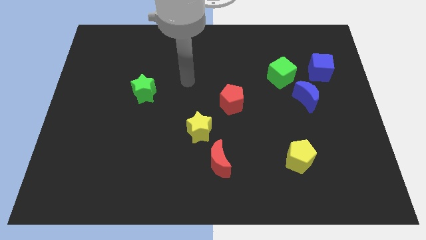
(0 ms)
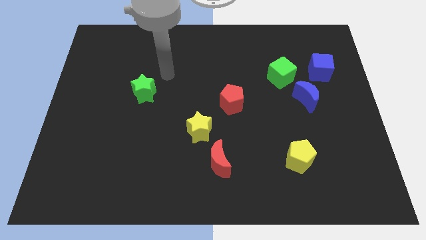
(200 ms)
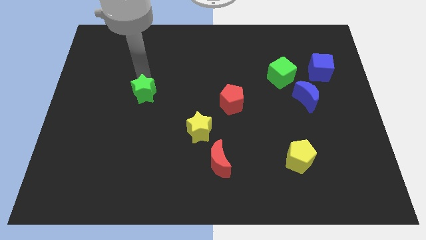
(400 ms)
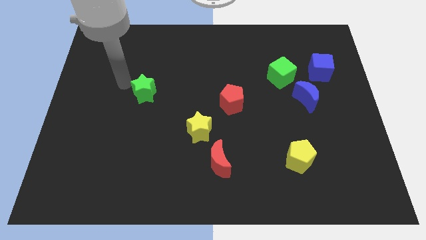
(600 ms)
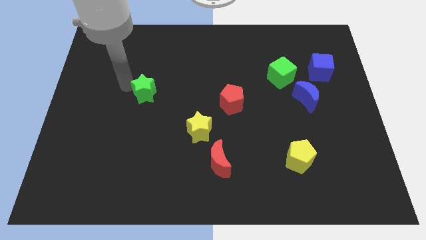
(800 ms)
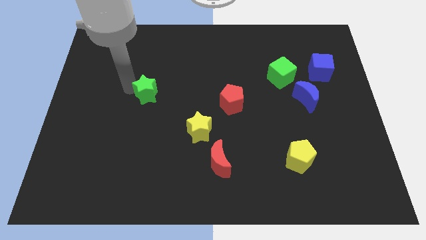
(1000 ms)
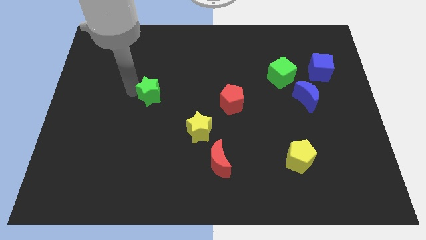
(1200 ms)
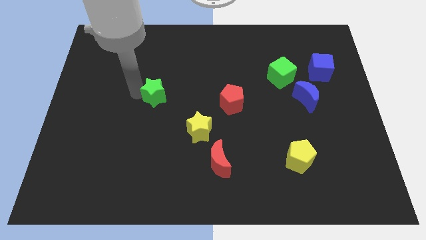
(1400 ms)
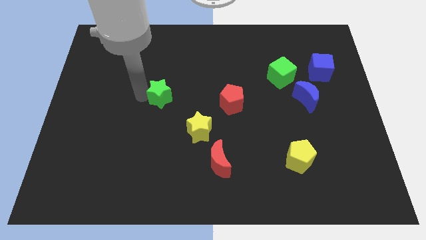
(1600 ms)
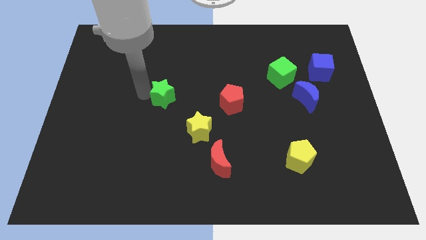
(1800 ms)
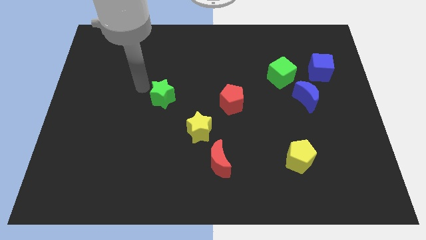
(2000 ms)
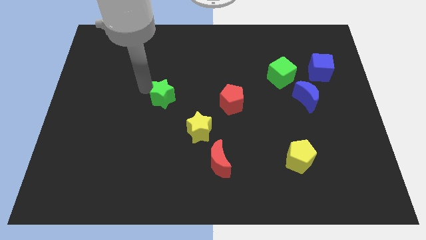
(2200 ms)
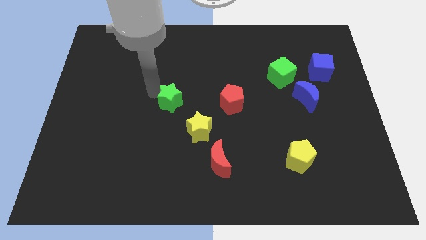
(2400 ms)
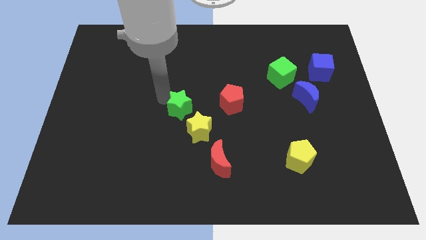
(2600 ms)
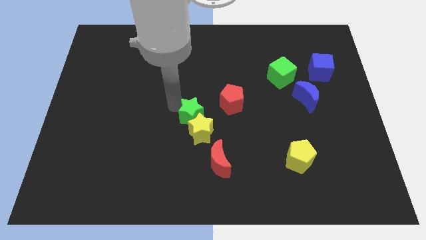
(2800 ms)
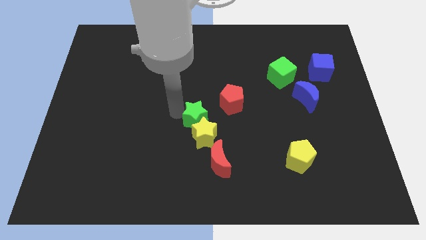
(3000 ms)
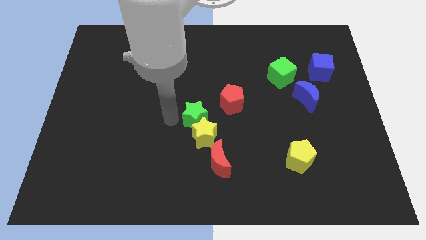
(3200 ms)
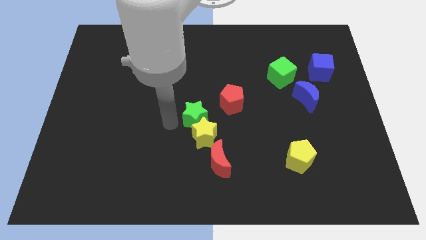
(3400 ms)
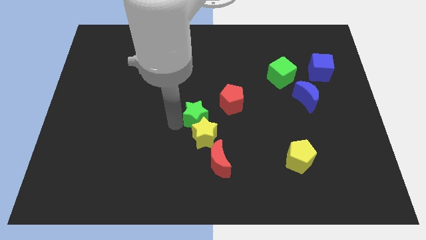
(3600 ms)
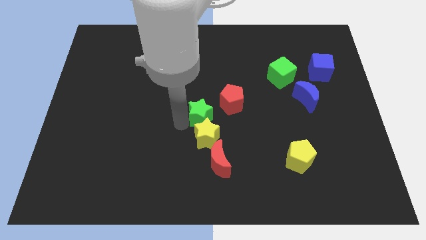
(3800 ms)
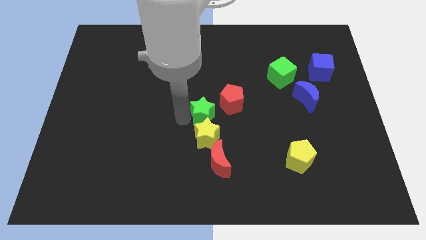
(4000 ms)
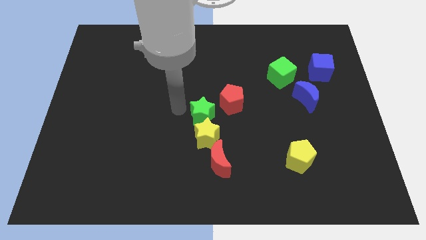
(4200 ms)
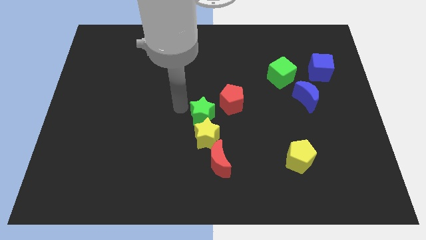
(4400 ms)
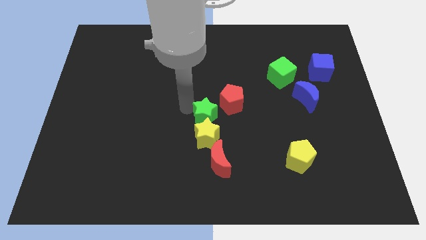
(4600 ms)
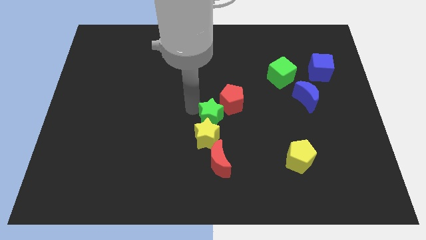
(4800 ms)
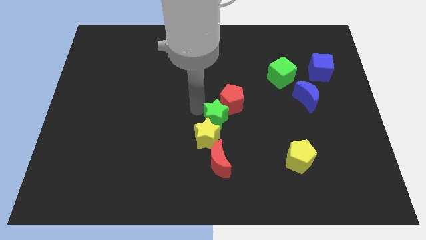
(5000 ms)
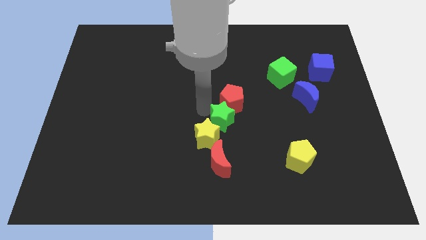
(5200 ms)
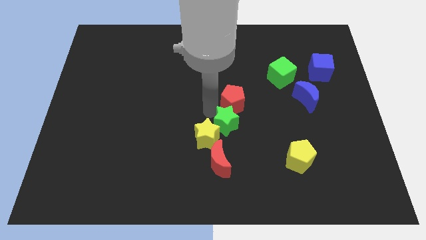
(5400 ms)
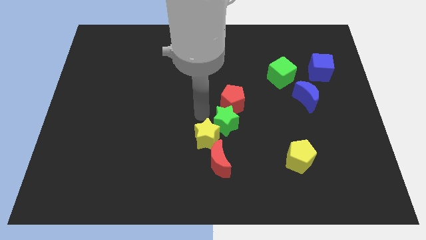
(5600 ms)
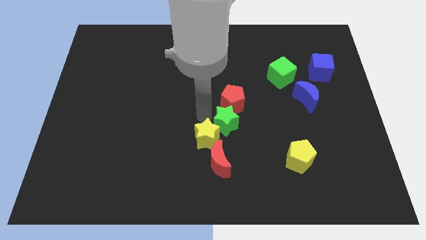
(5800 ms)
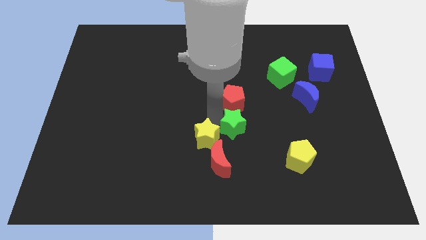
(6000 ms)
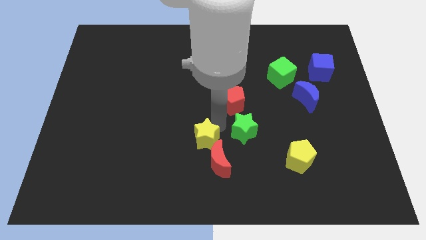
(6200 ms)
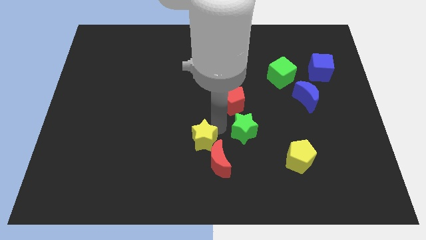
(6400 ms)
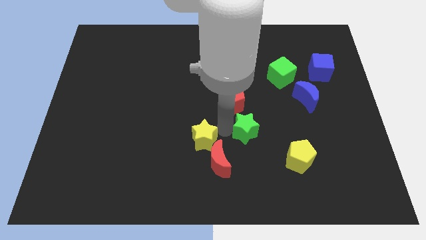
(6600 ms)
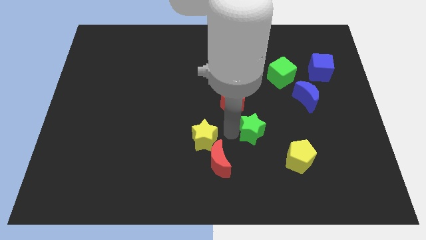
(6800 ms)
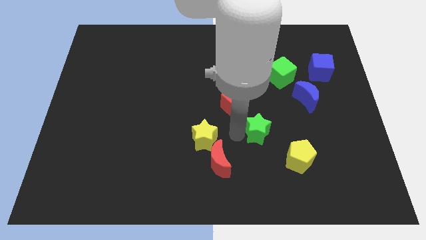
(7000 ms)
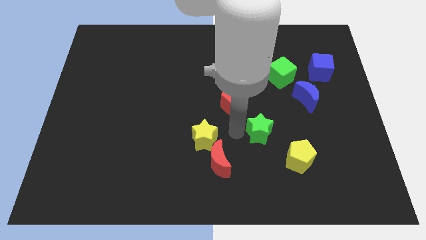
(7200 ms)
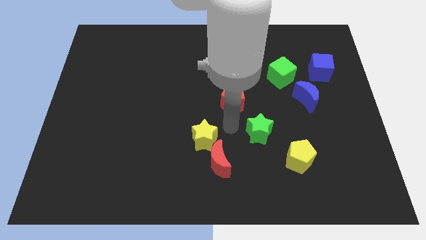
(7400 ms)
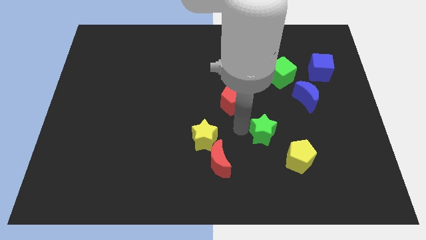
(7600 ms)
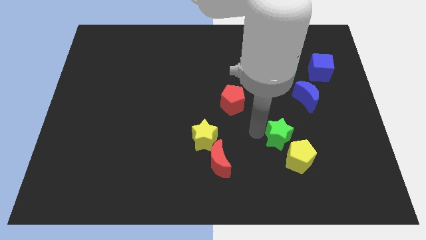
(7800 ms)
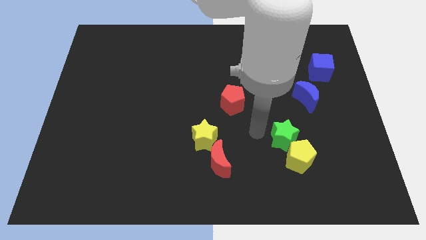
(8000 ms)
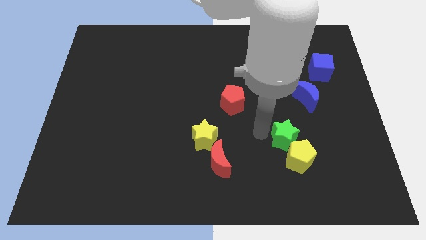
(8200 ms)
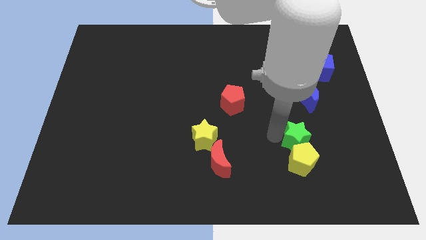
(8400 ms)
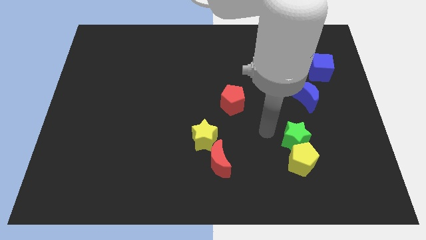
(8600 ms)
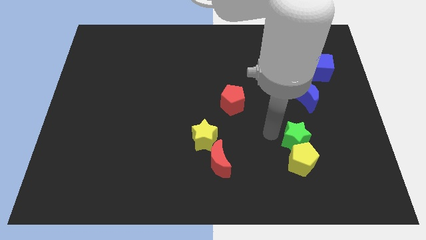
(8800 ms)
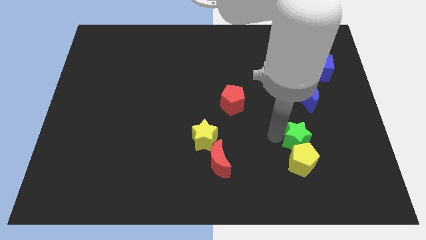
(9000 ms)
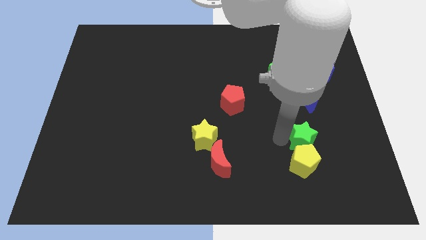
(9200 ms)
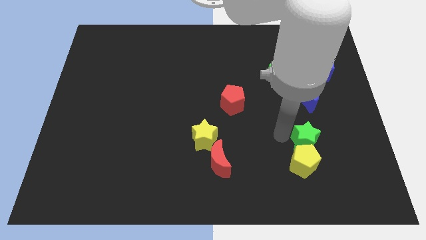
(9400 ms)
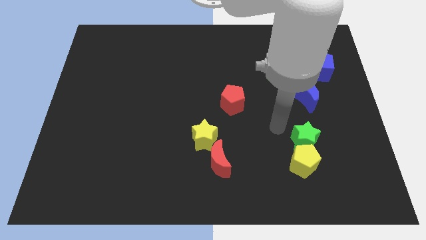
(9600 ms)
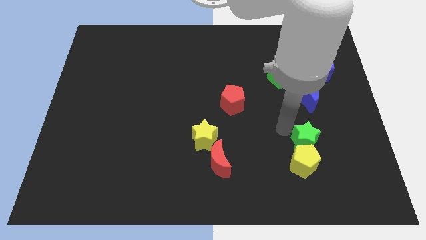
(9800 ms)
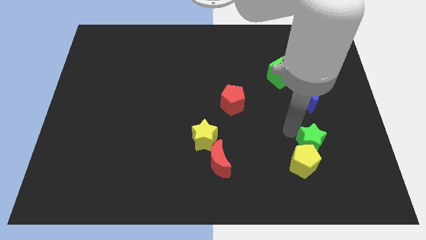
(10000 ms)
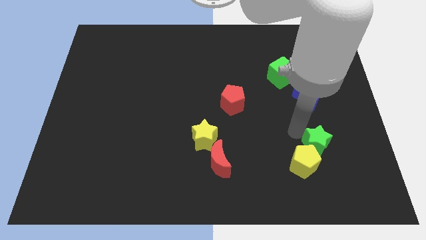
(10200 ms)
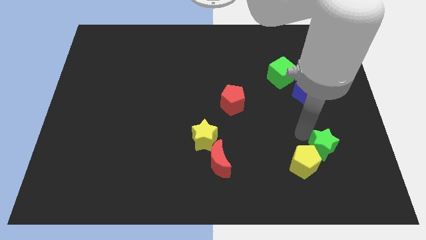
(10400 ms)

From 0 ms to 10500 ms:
push the green star to the right side of the yellow pentagon

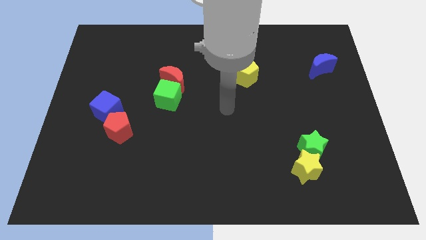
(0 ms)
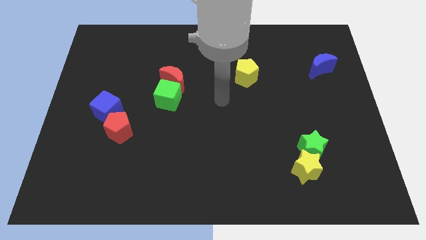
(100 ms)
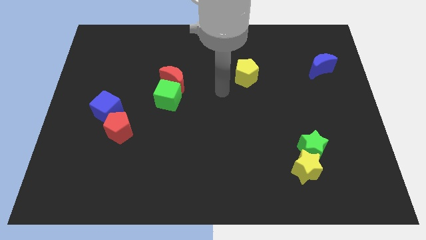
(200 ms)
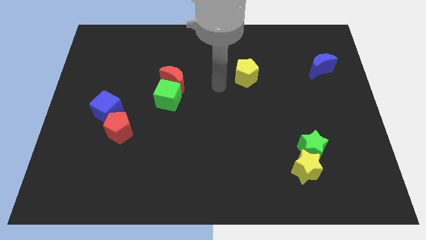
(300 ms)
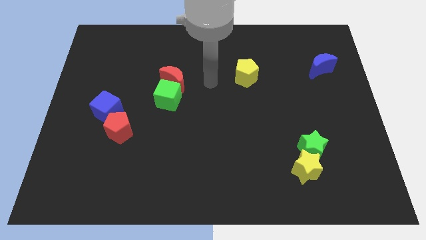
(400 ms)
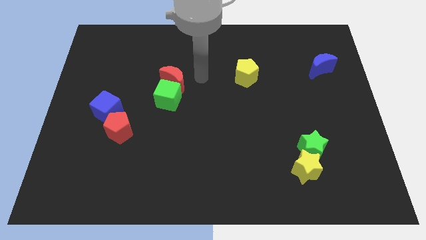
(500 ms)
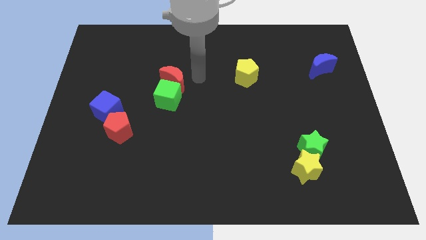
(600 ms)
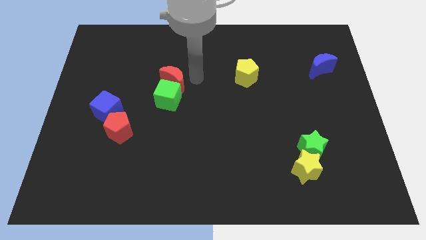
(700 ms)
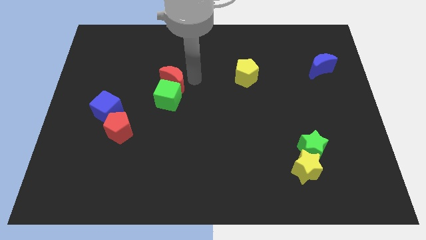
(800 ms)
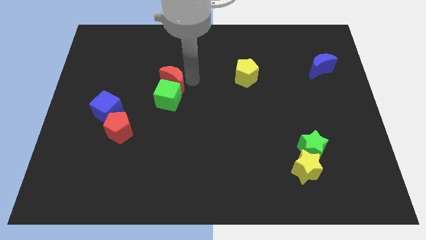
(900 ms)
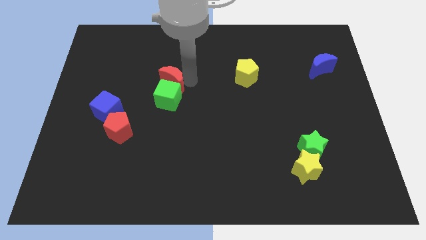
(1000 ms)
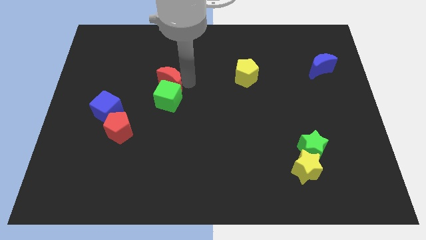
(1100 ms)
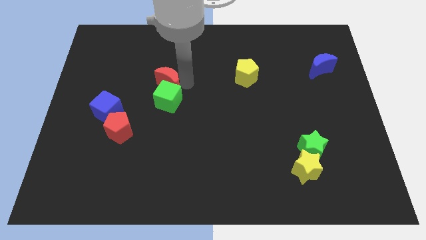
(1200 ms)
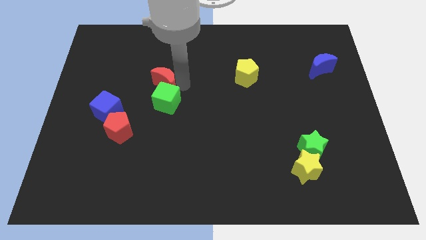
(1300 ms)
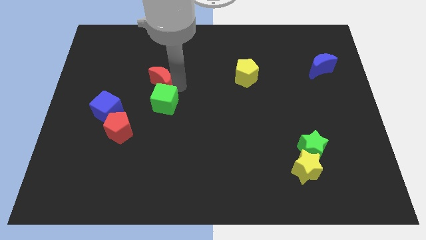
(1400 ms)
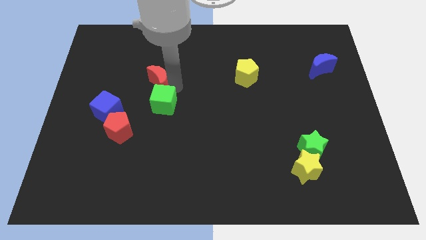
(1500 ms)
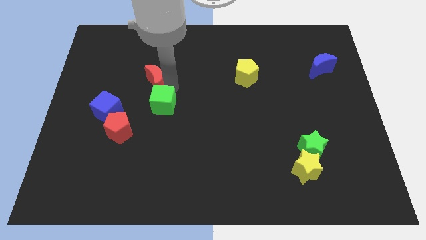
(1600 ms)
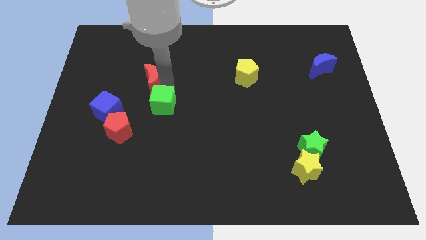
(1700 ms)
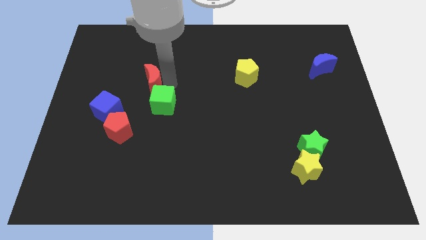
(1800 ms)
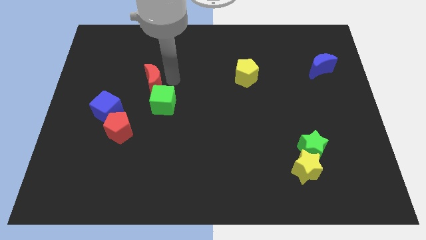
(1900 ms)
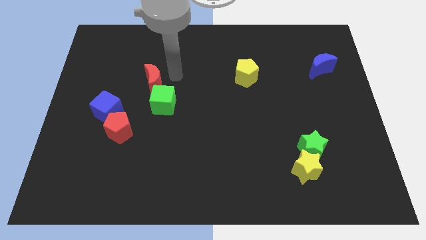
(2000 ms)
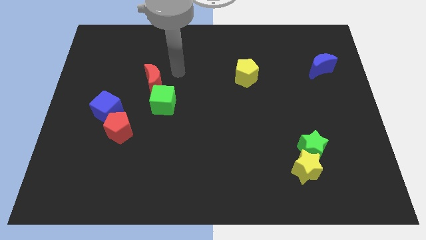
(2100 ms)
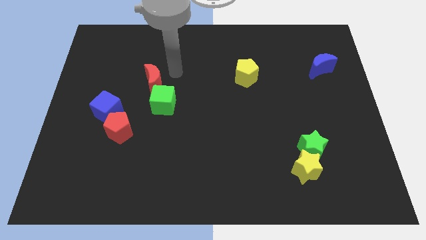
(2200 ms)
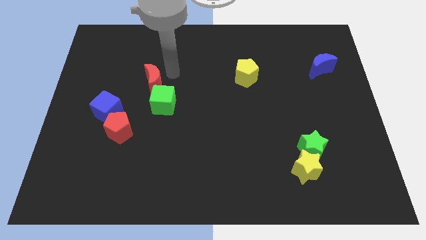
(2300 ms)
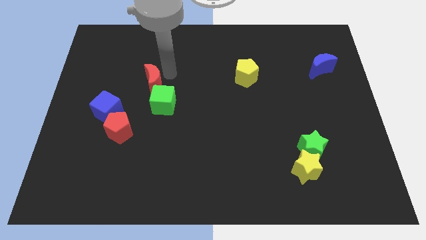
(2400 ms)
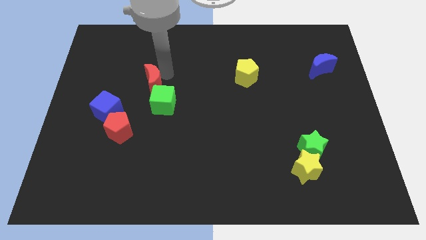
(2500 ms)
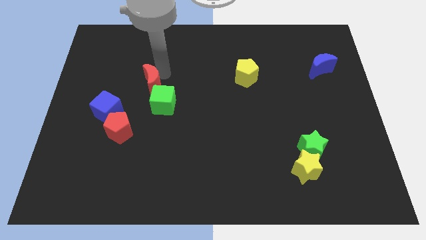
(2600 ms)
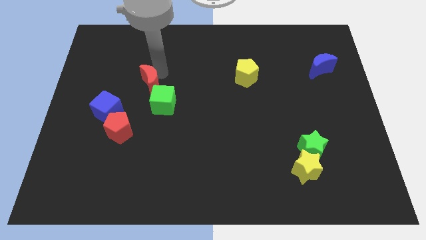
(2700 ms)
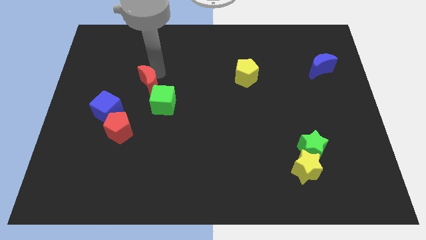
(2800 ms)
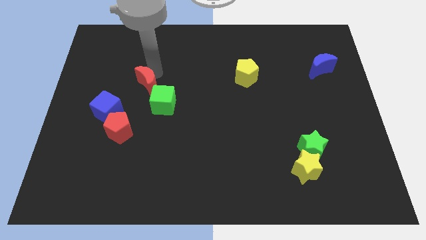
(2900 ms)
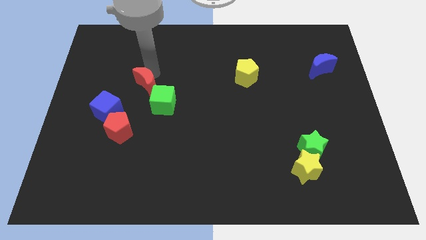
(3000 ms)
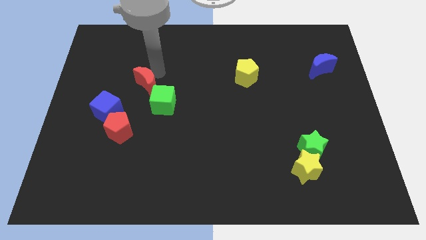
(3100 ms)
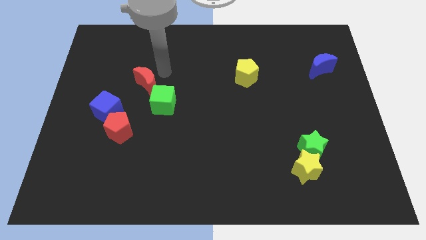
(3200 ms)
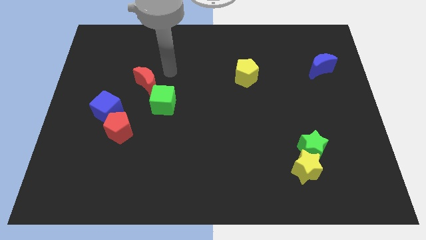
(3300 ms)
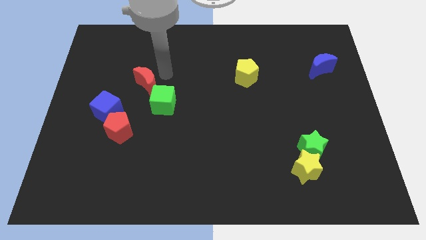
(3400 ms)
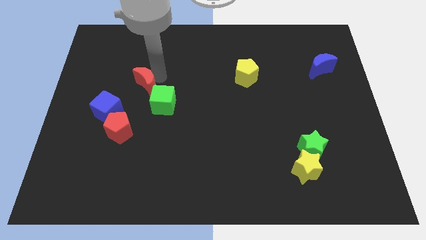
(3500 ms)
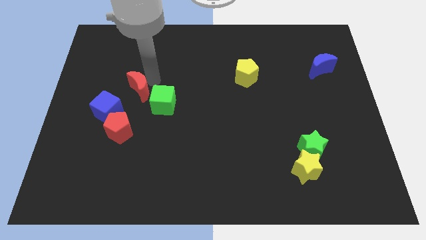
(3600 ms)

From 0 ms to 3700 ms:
slide the red moon above the red pentagon
